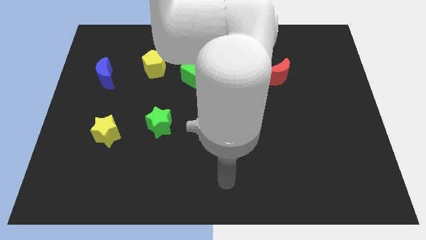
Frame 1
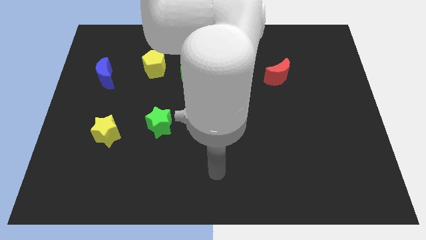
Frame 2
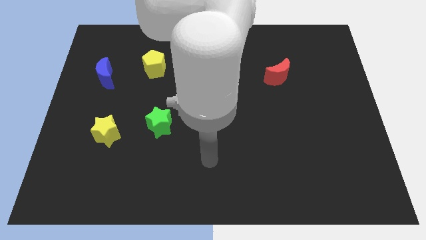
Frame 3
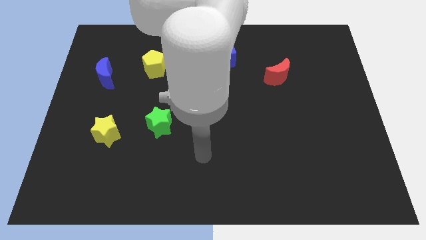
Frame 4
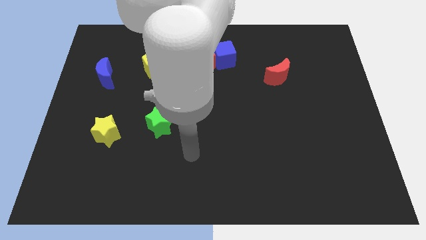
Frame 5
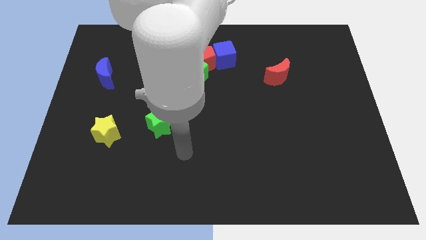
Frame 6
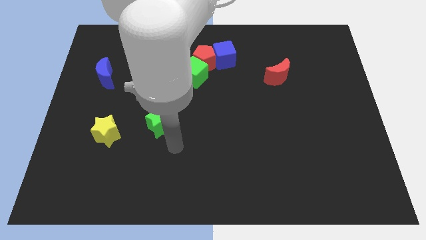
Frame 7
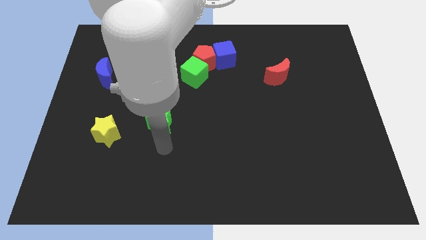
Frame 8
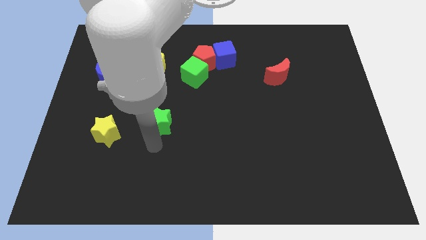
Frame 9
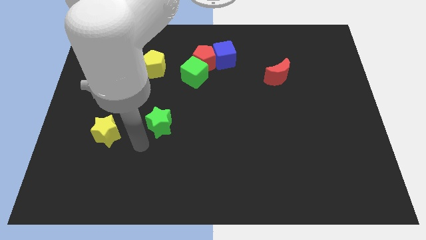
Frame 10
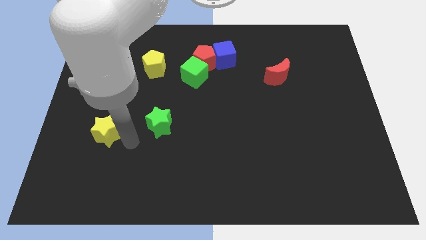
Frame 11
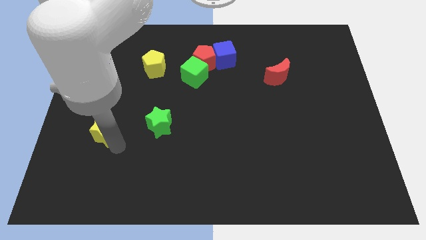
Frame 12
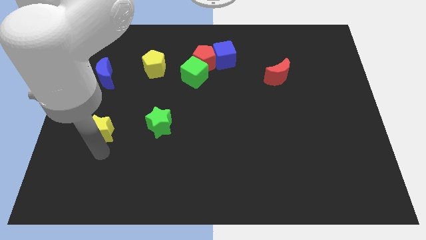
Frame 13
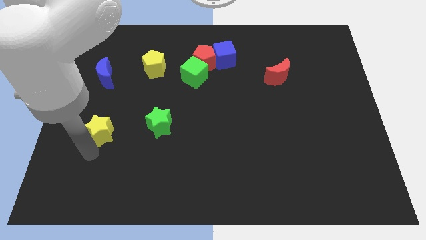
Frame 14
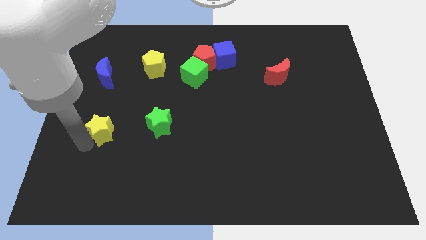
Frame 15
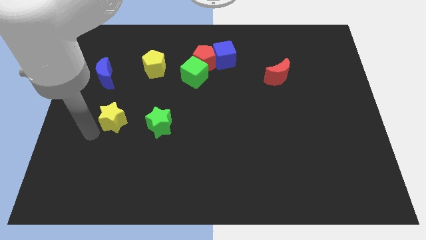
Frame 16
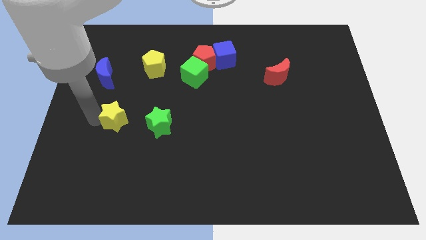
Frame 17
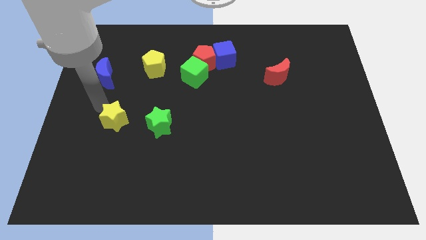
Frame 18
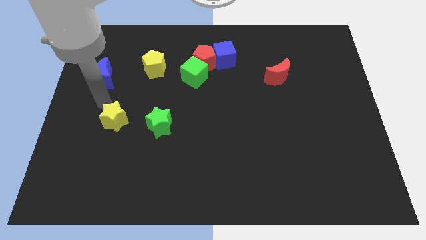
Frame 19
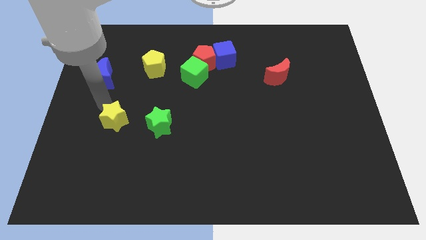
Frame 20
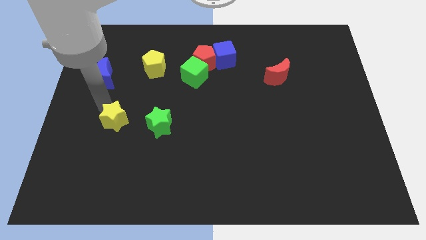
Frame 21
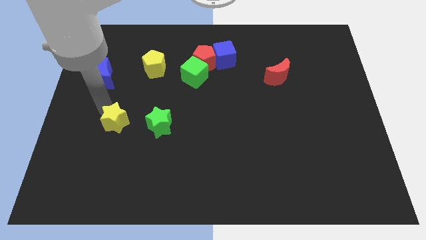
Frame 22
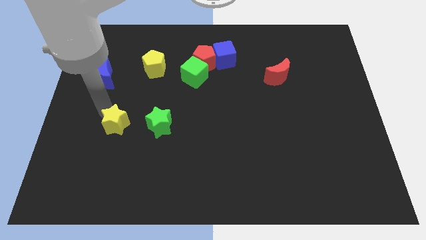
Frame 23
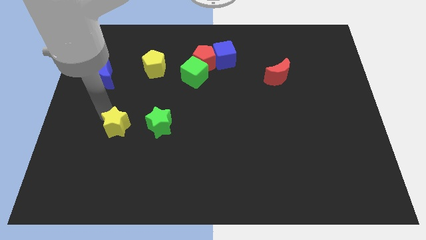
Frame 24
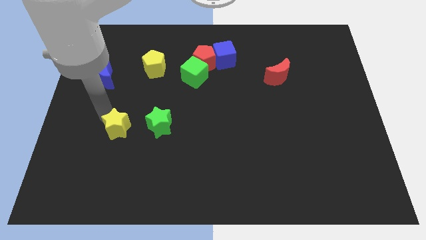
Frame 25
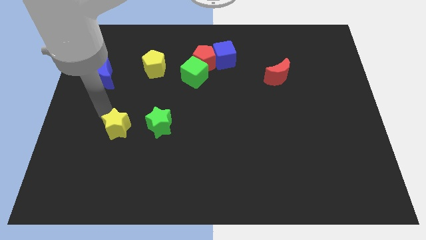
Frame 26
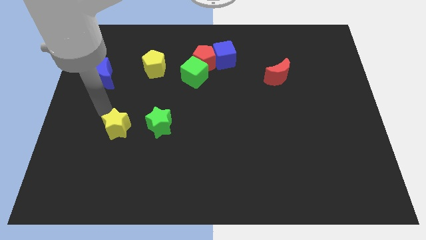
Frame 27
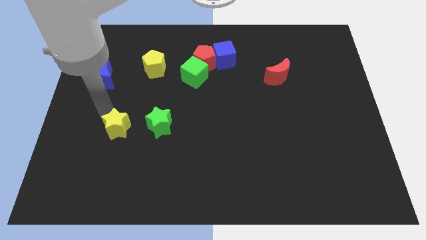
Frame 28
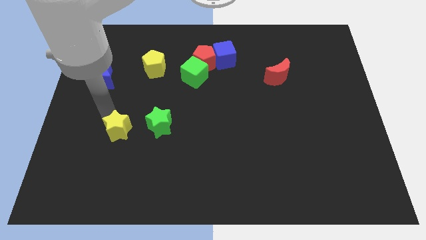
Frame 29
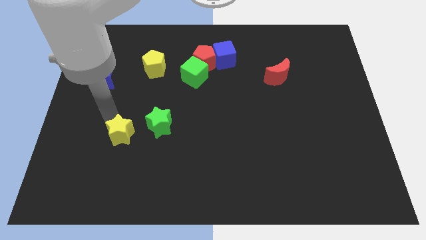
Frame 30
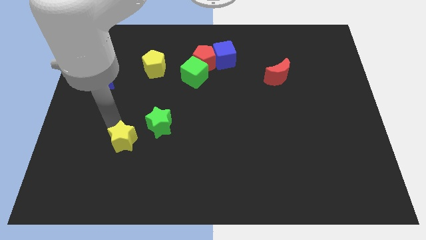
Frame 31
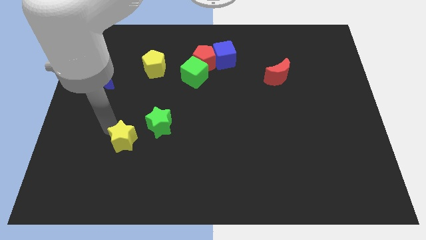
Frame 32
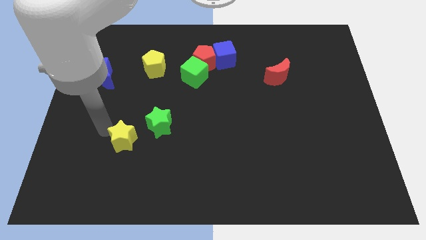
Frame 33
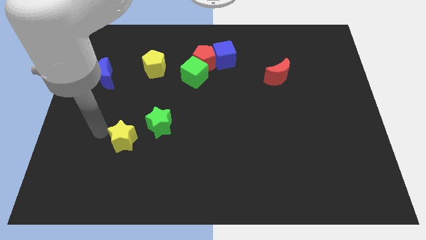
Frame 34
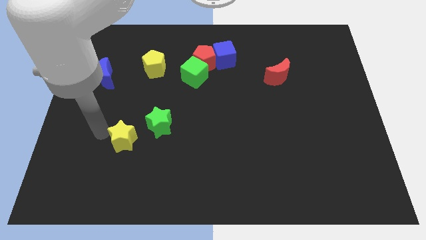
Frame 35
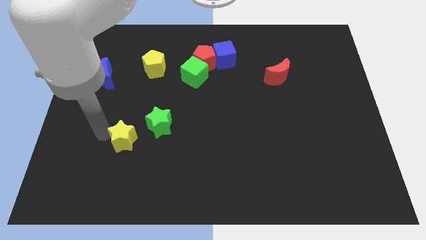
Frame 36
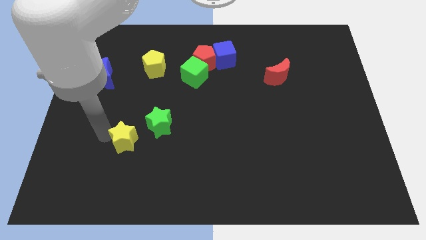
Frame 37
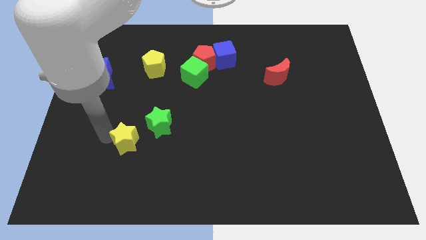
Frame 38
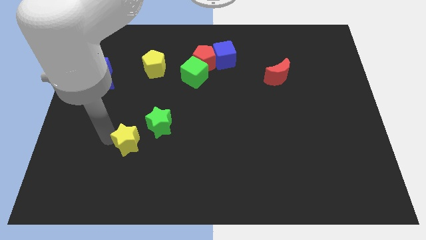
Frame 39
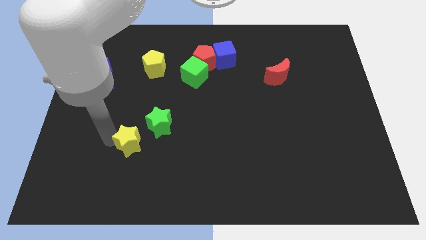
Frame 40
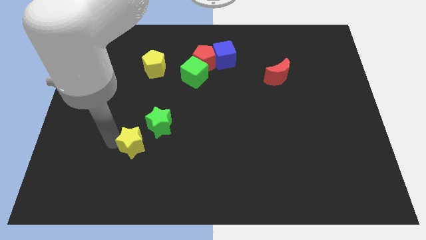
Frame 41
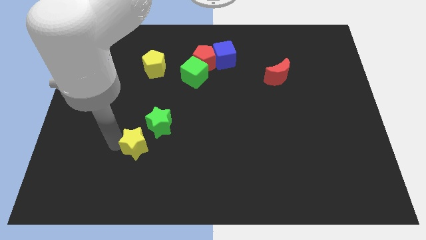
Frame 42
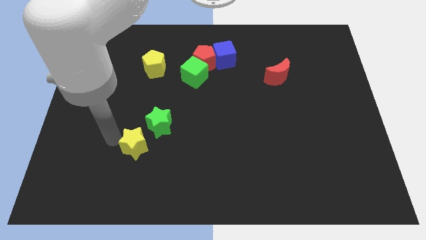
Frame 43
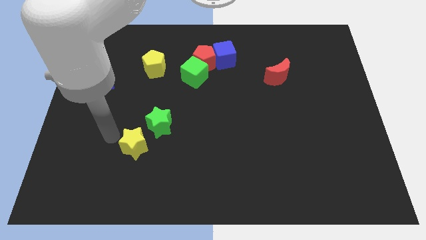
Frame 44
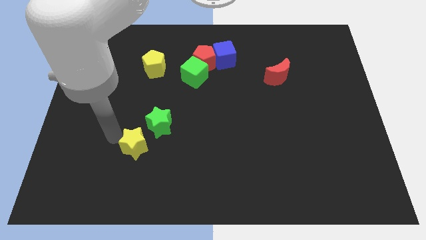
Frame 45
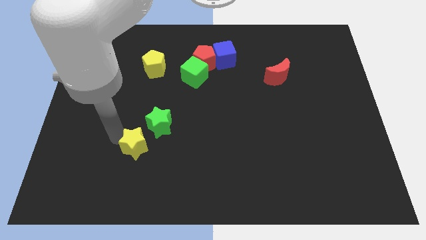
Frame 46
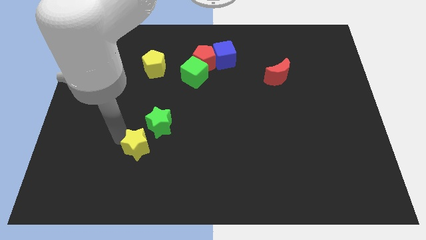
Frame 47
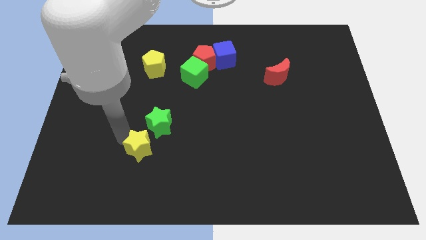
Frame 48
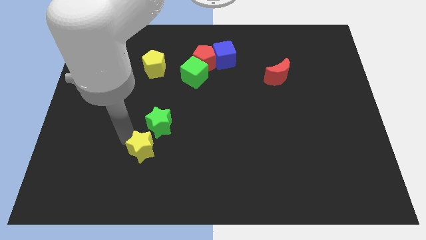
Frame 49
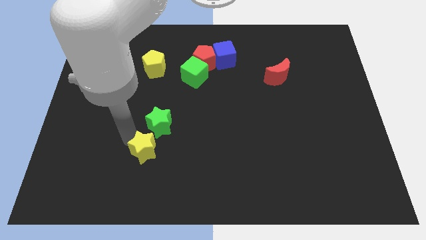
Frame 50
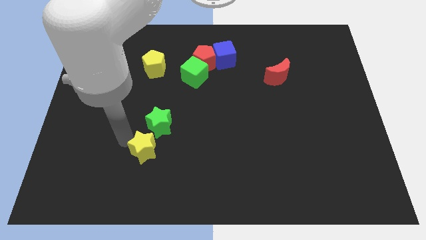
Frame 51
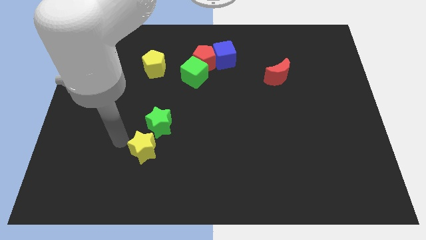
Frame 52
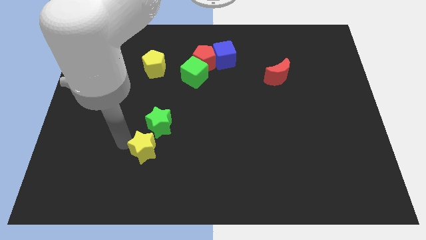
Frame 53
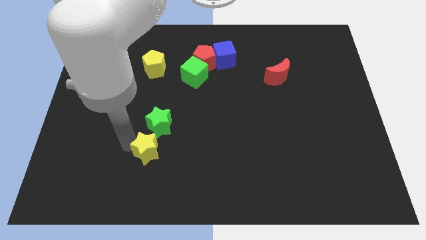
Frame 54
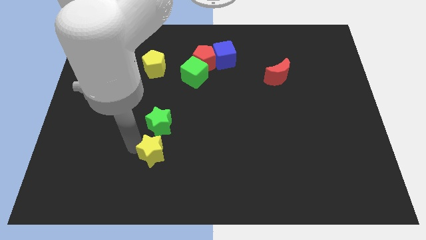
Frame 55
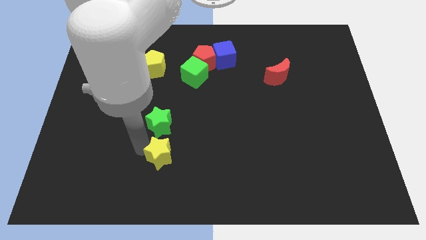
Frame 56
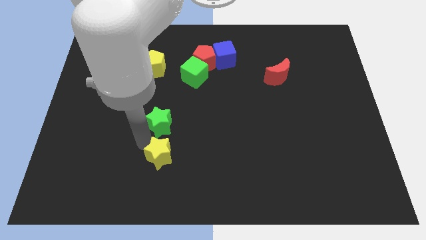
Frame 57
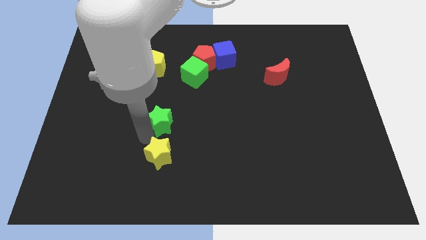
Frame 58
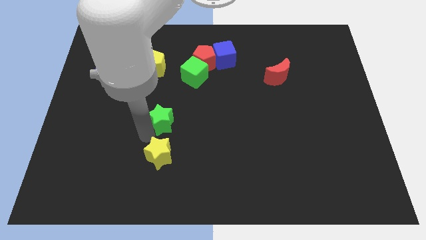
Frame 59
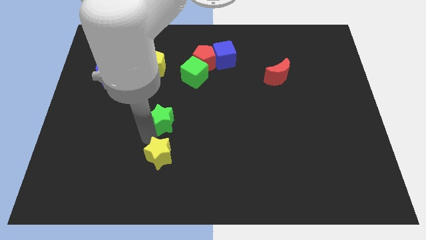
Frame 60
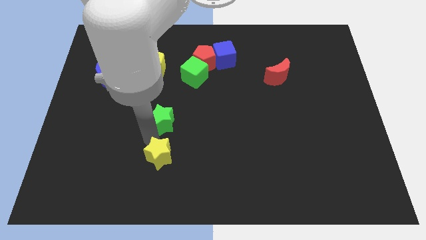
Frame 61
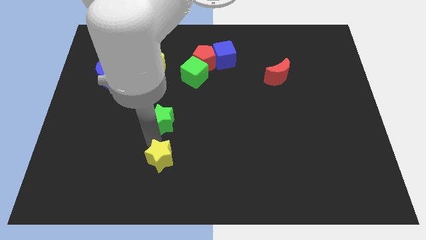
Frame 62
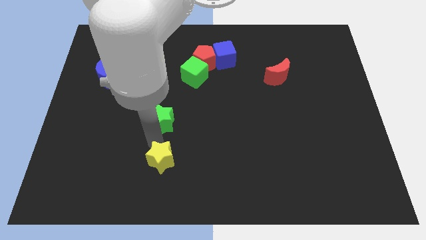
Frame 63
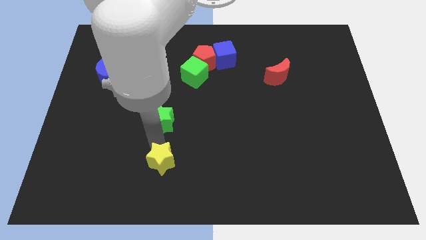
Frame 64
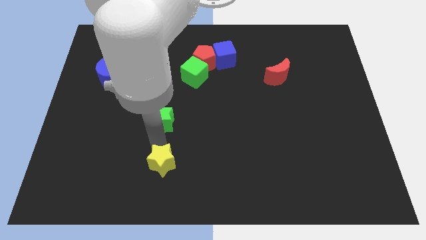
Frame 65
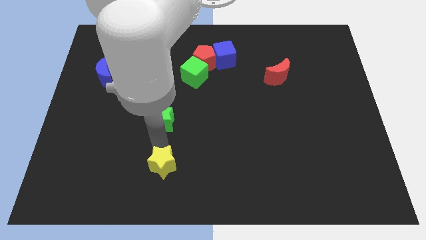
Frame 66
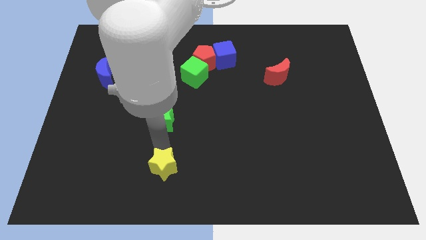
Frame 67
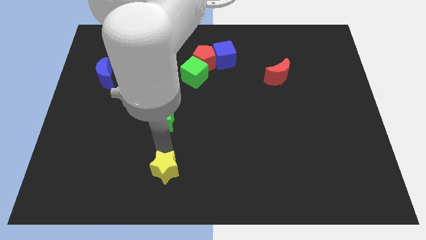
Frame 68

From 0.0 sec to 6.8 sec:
put the yellow star to the bottom side
